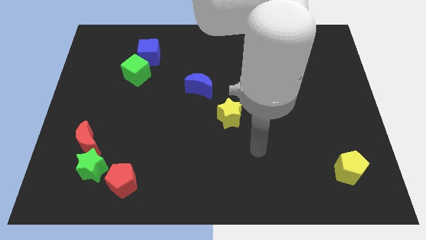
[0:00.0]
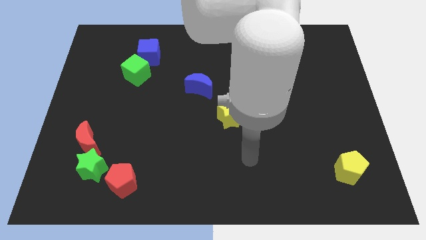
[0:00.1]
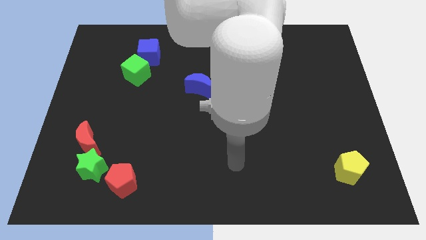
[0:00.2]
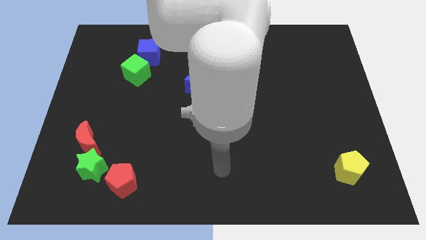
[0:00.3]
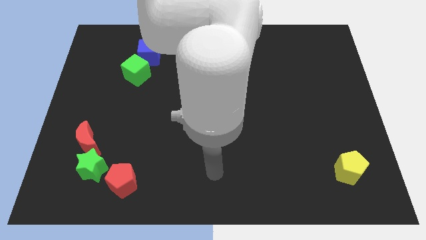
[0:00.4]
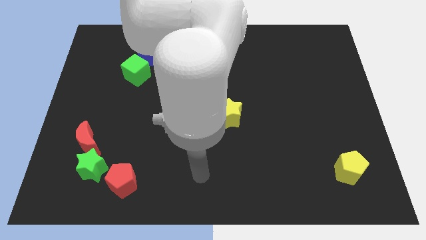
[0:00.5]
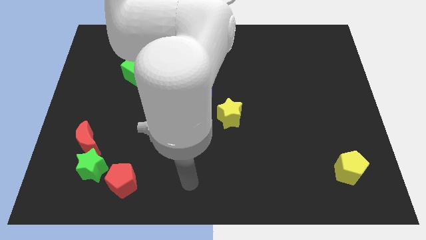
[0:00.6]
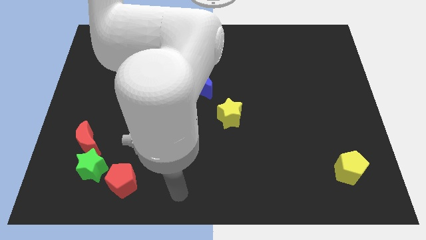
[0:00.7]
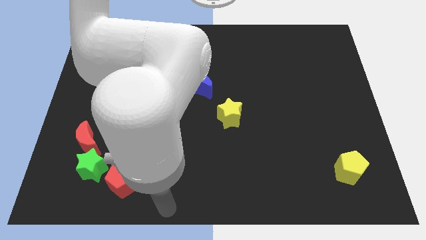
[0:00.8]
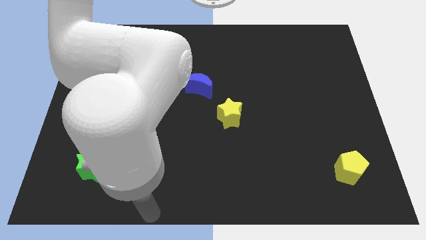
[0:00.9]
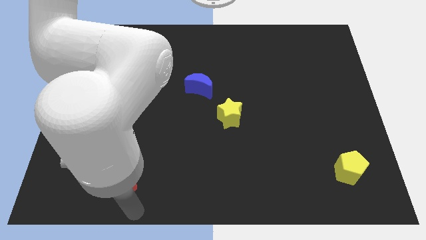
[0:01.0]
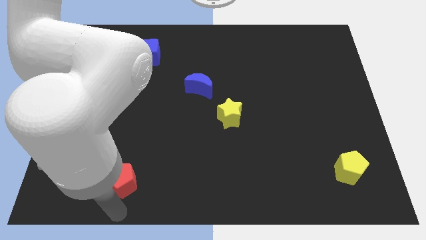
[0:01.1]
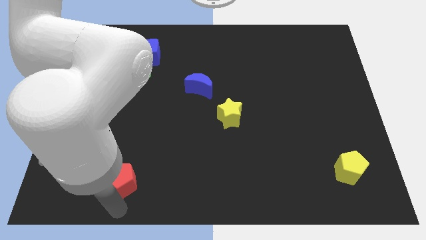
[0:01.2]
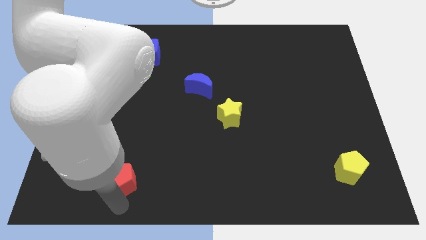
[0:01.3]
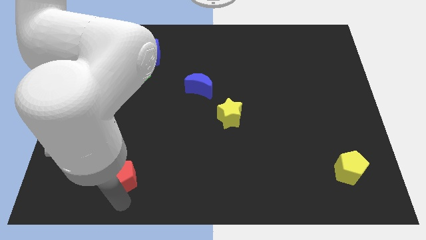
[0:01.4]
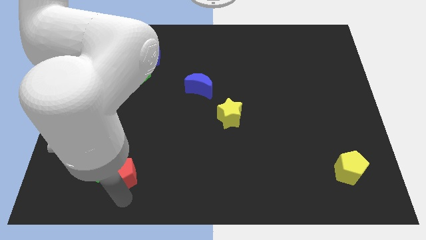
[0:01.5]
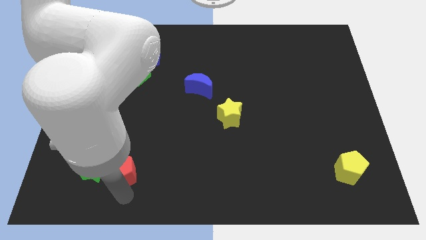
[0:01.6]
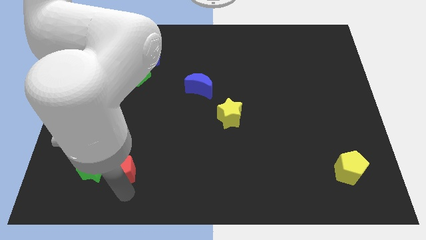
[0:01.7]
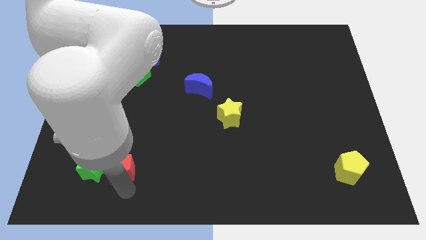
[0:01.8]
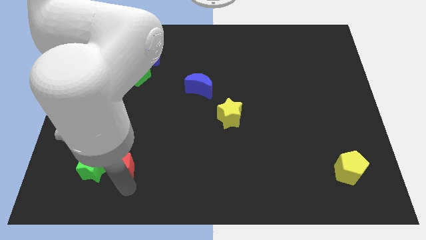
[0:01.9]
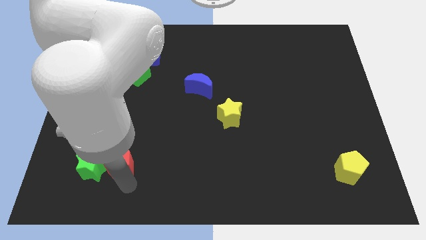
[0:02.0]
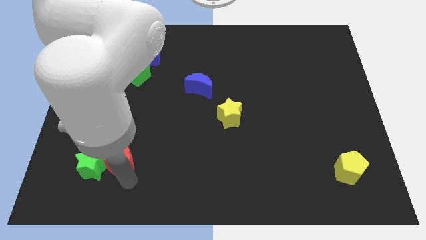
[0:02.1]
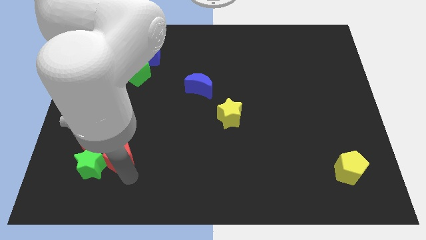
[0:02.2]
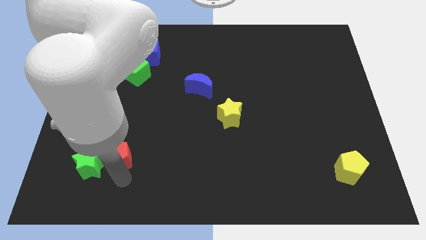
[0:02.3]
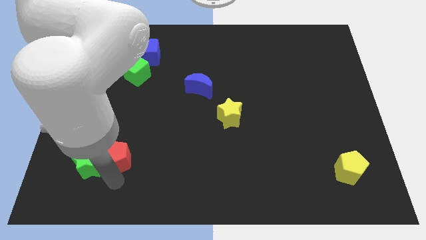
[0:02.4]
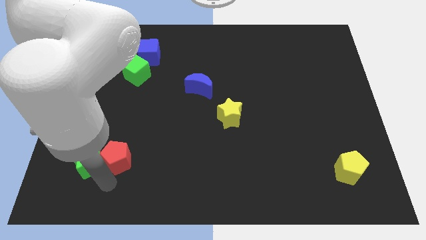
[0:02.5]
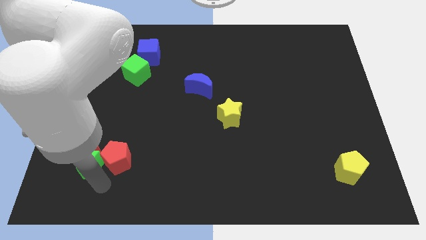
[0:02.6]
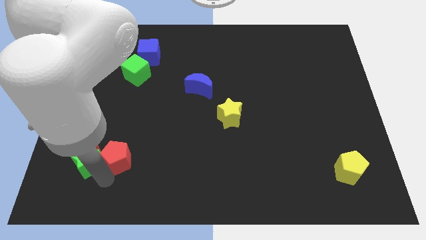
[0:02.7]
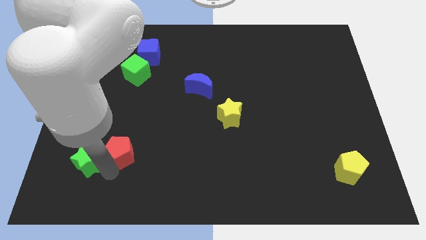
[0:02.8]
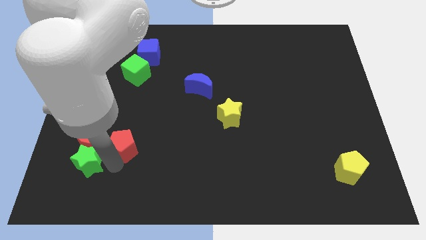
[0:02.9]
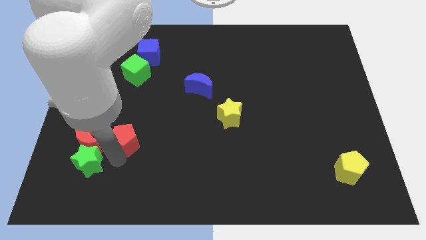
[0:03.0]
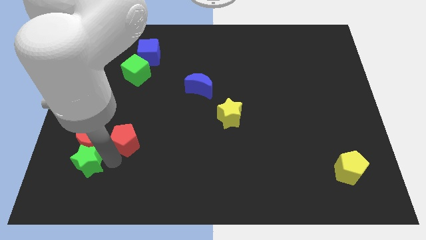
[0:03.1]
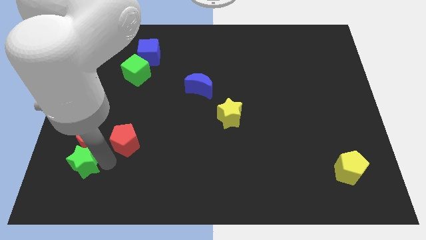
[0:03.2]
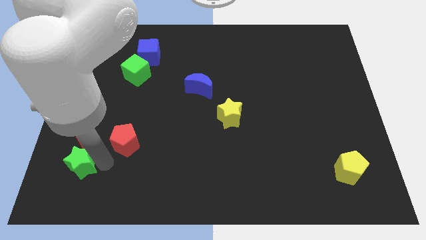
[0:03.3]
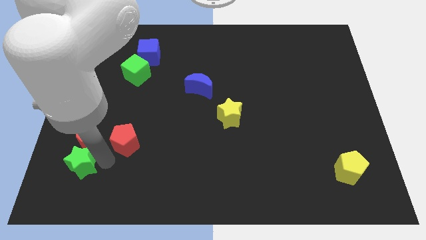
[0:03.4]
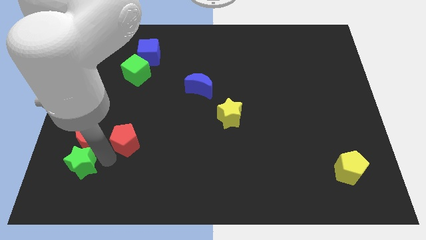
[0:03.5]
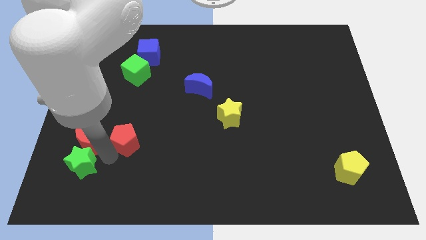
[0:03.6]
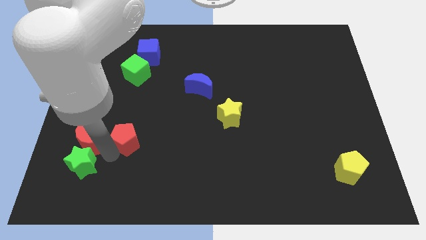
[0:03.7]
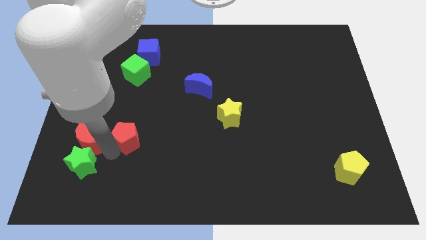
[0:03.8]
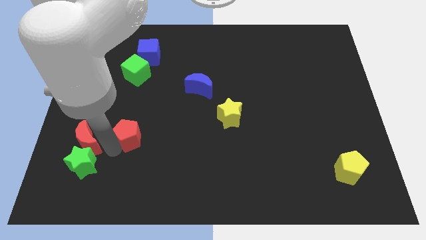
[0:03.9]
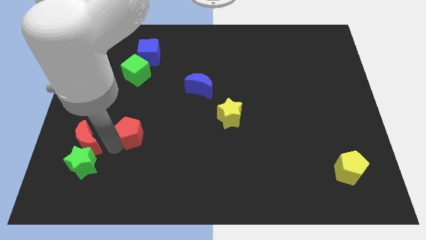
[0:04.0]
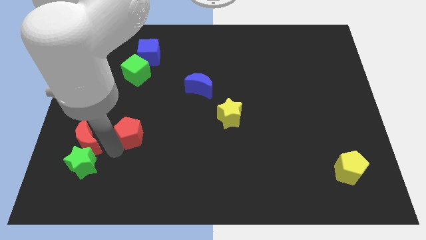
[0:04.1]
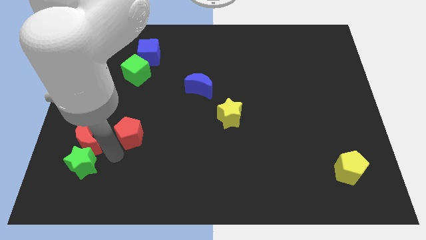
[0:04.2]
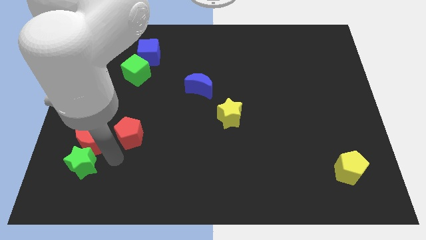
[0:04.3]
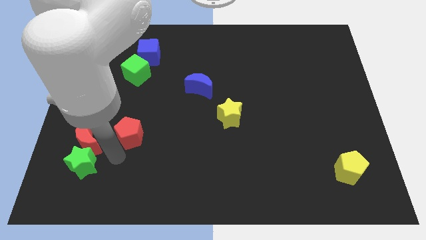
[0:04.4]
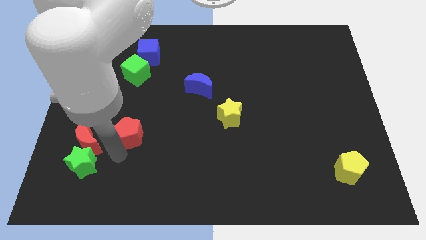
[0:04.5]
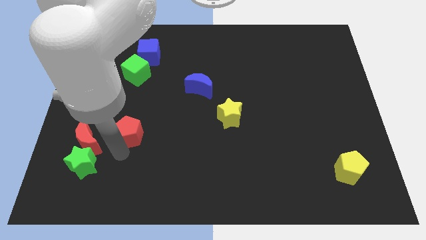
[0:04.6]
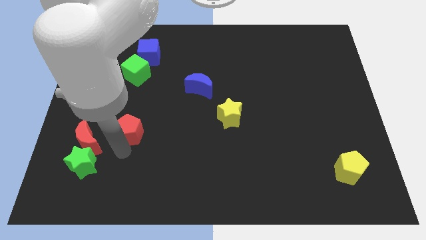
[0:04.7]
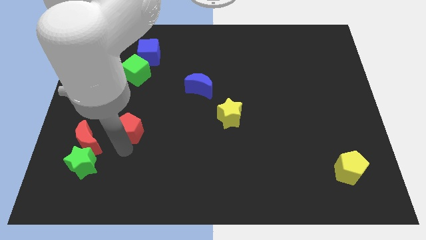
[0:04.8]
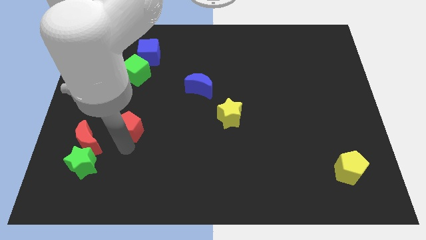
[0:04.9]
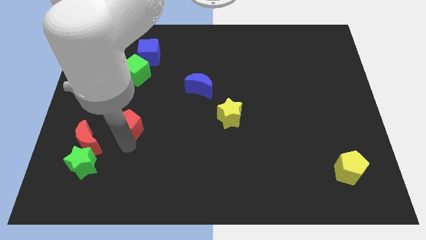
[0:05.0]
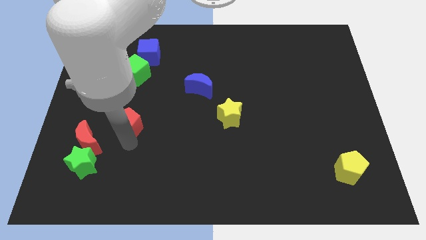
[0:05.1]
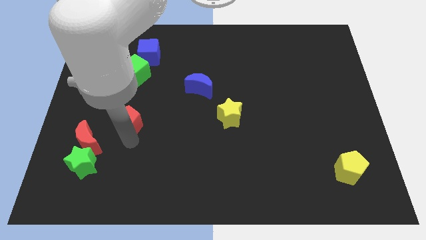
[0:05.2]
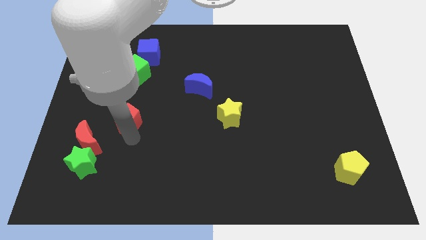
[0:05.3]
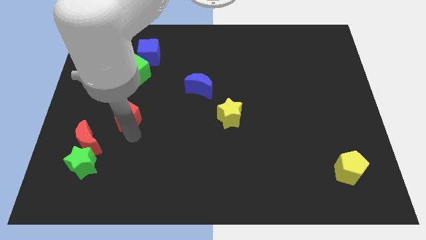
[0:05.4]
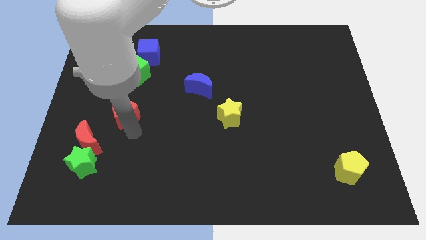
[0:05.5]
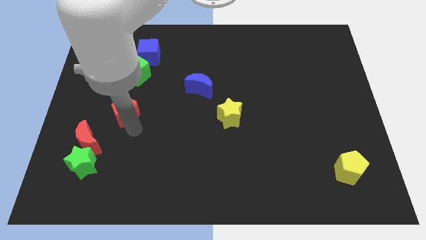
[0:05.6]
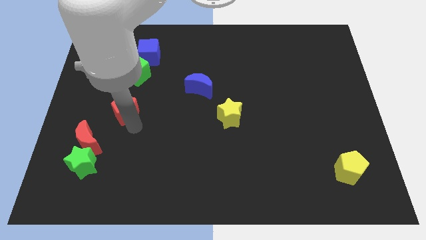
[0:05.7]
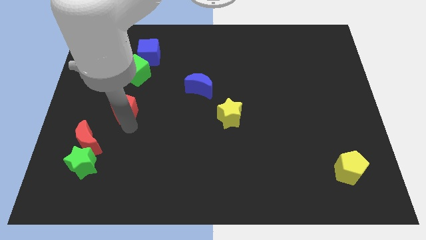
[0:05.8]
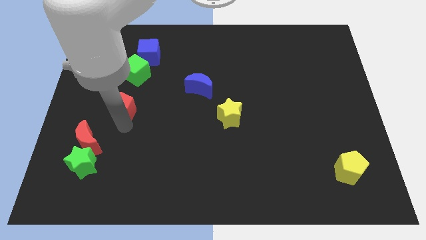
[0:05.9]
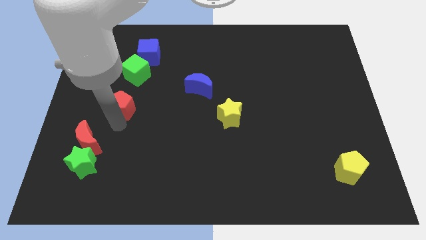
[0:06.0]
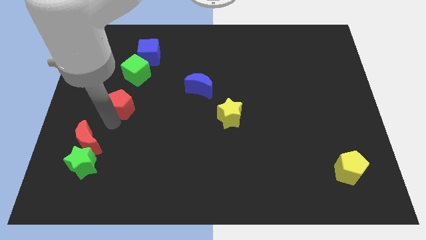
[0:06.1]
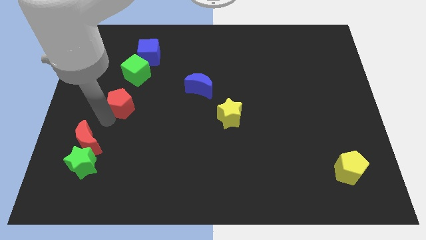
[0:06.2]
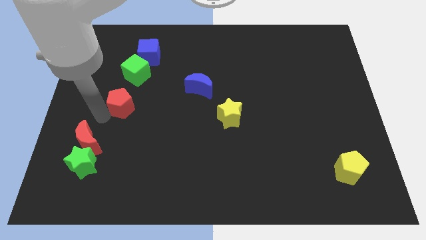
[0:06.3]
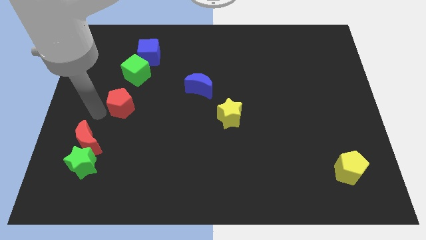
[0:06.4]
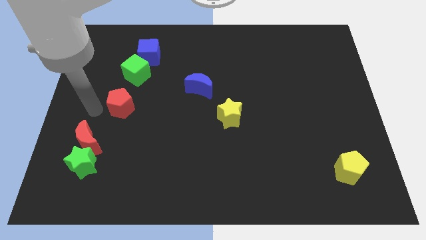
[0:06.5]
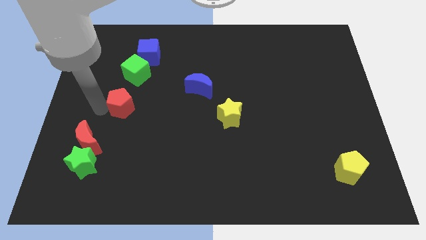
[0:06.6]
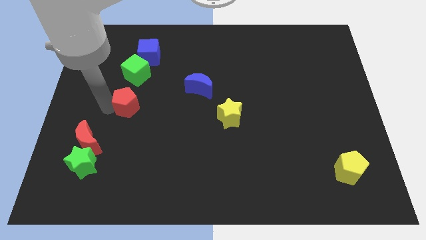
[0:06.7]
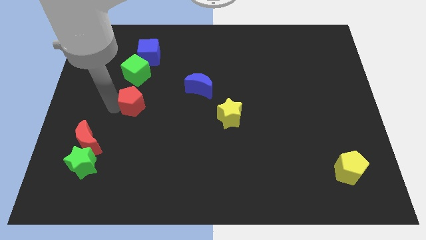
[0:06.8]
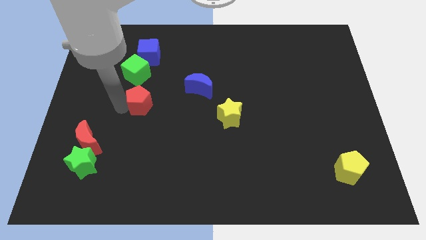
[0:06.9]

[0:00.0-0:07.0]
put the red pentagon to the bottom side of the blue cube
